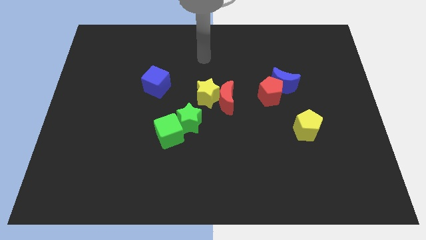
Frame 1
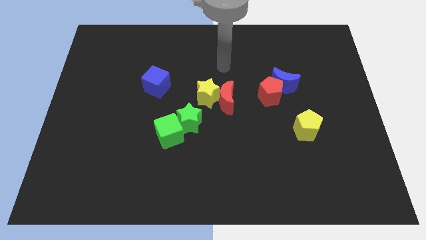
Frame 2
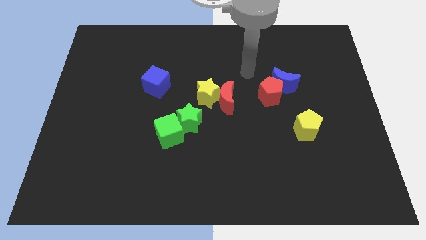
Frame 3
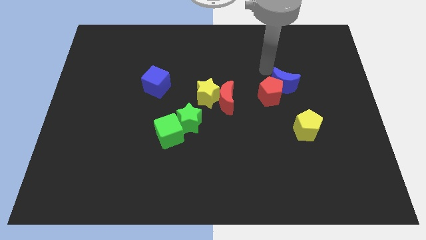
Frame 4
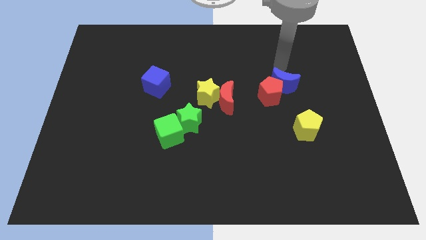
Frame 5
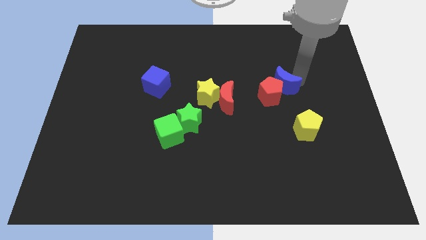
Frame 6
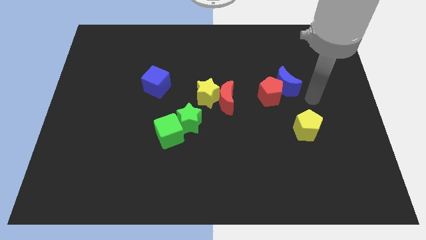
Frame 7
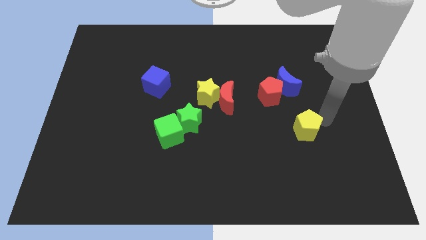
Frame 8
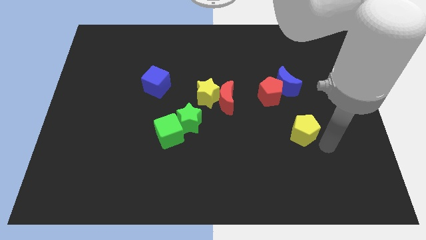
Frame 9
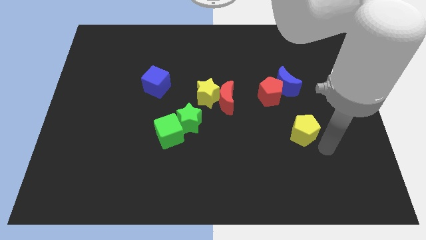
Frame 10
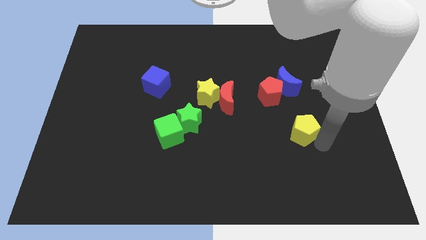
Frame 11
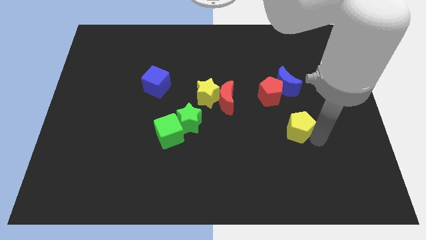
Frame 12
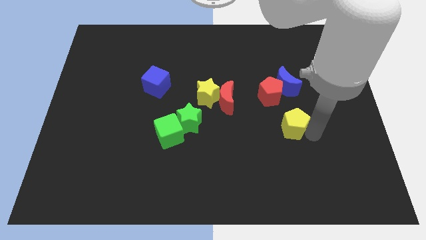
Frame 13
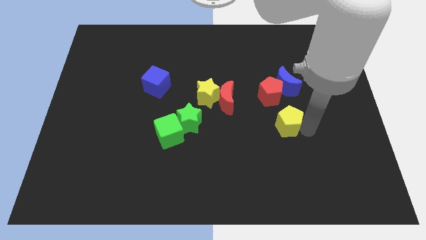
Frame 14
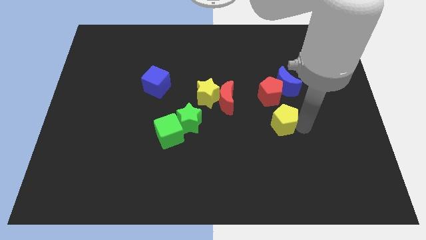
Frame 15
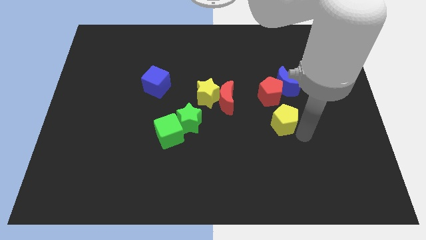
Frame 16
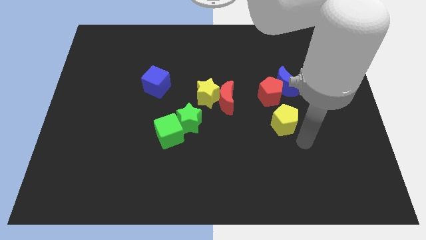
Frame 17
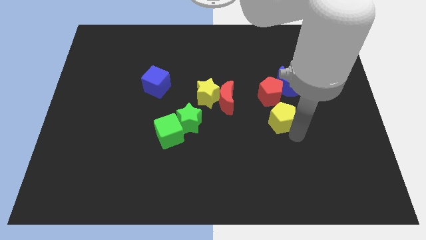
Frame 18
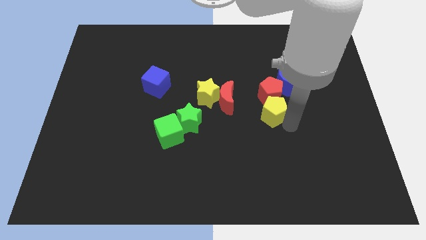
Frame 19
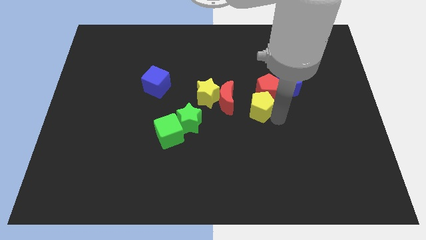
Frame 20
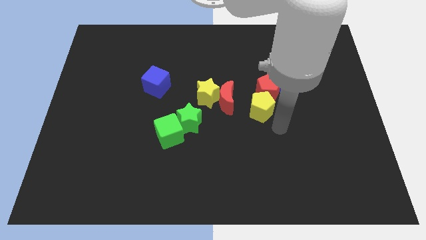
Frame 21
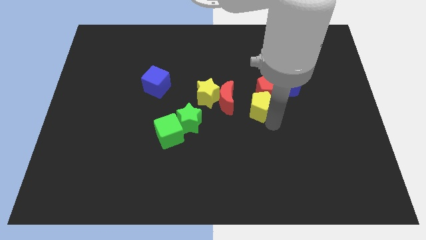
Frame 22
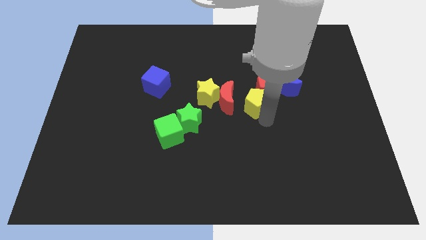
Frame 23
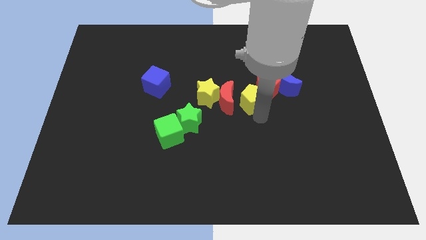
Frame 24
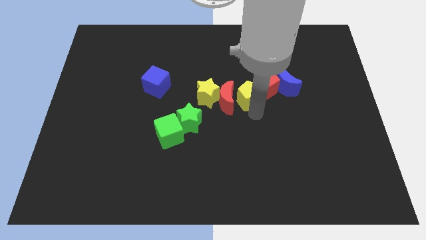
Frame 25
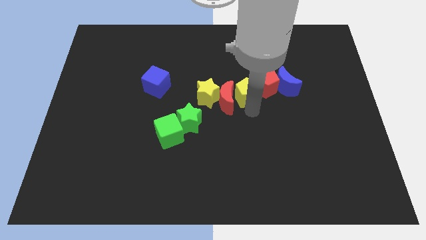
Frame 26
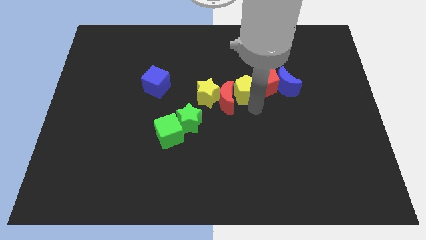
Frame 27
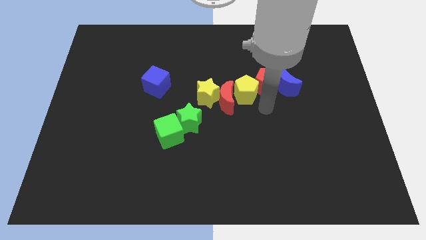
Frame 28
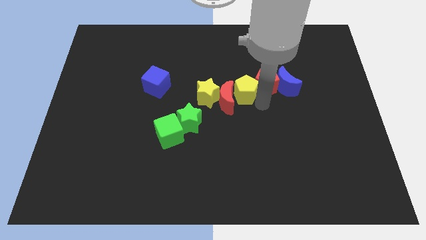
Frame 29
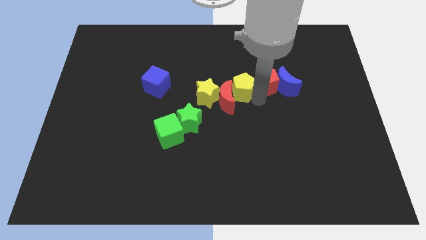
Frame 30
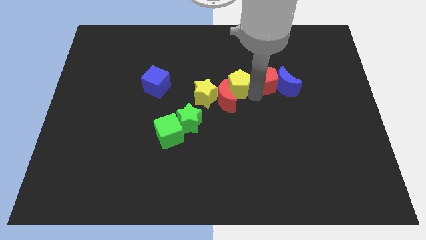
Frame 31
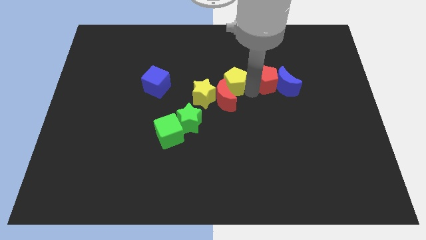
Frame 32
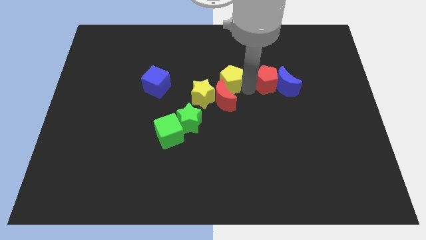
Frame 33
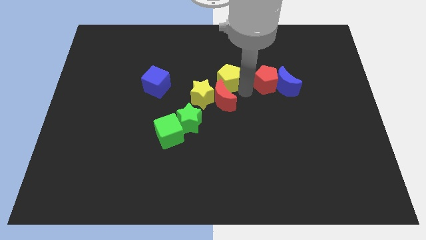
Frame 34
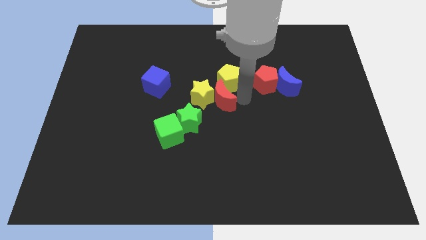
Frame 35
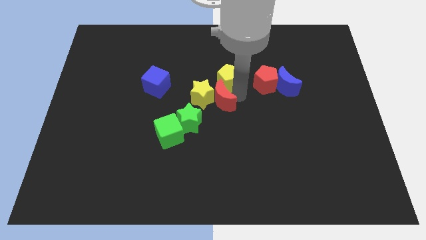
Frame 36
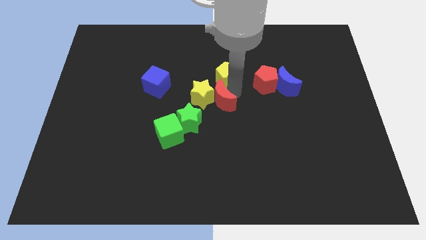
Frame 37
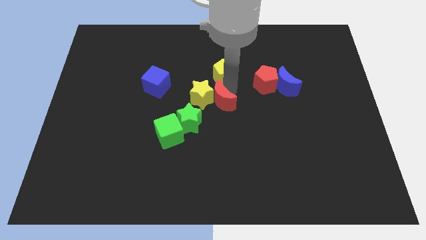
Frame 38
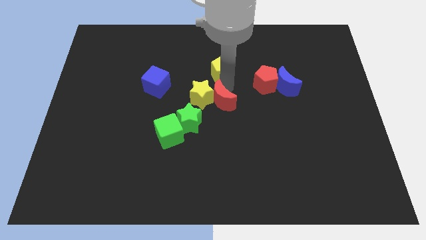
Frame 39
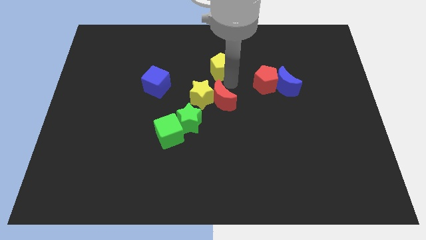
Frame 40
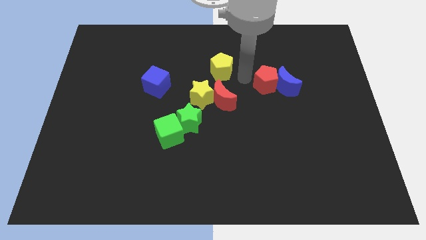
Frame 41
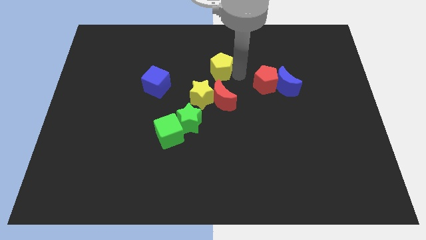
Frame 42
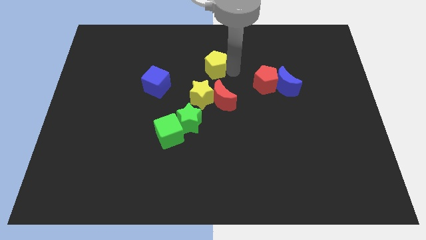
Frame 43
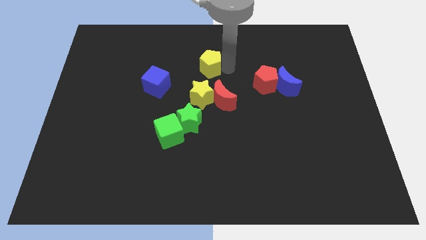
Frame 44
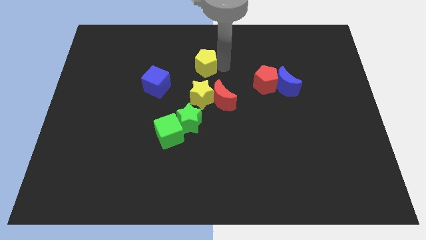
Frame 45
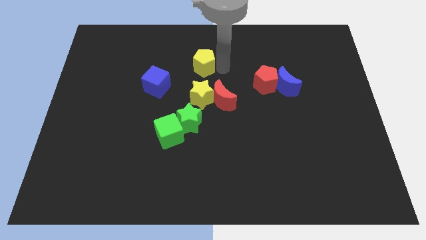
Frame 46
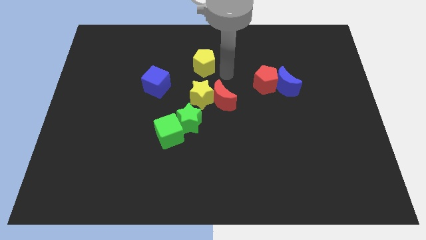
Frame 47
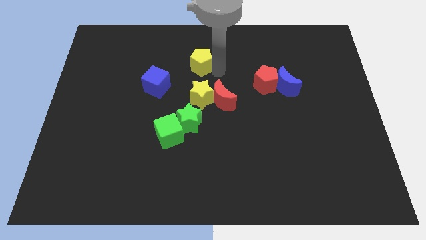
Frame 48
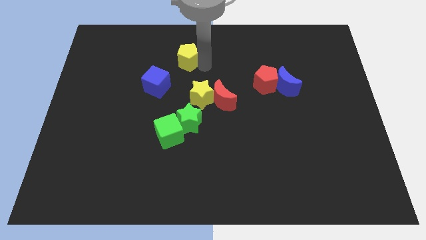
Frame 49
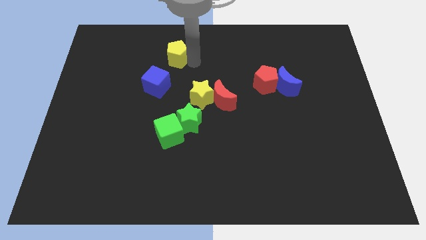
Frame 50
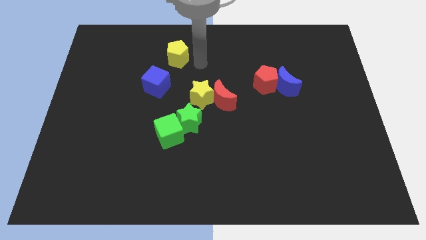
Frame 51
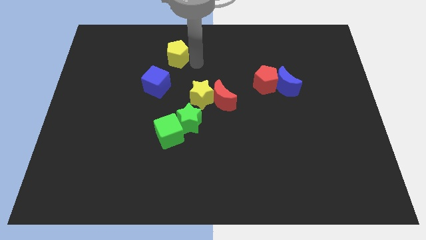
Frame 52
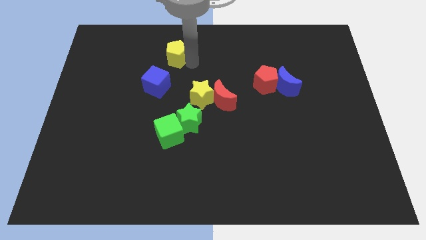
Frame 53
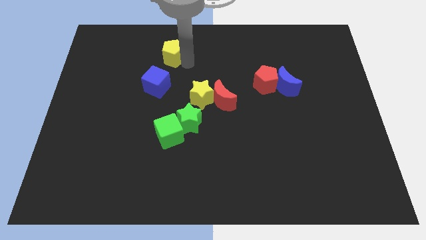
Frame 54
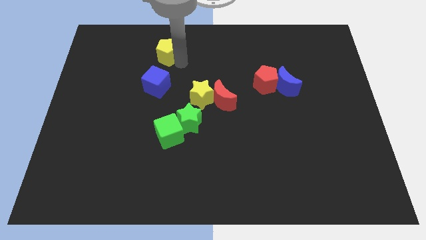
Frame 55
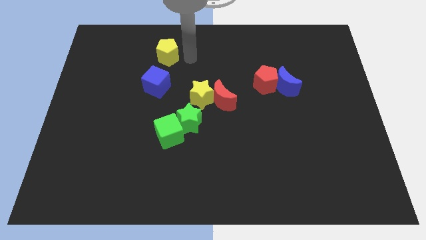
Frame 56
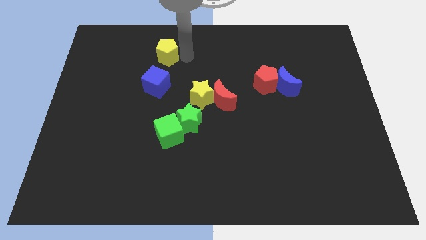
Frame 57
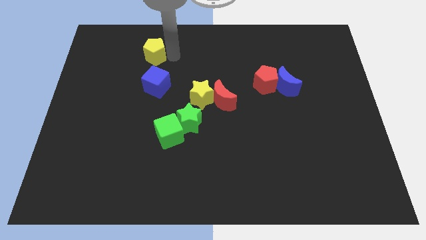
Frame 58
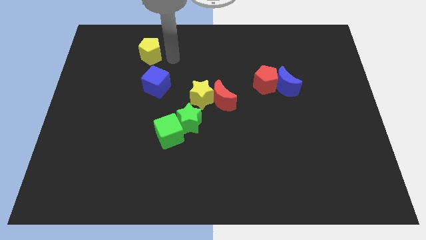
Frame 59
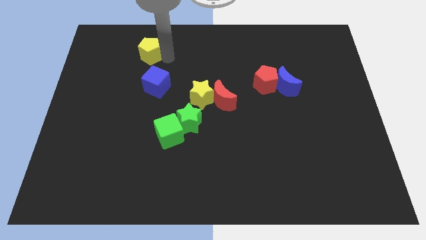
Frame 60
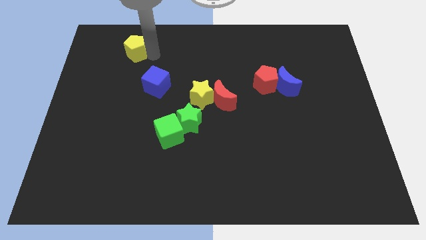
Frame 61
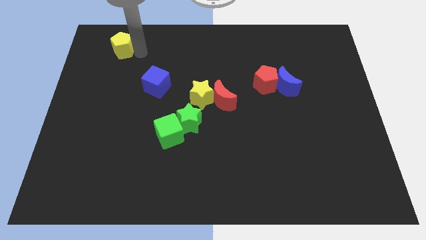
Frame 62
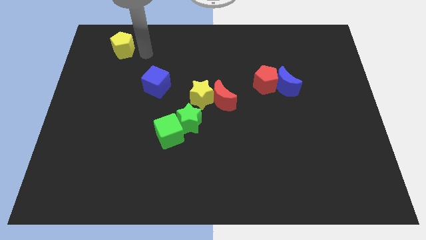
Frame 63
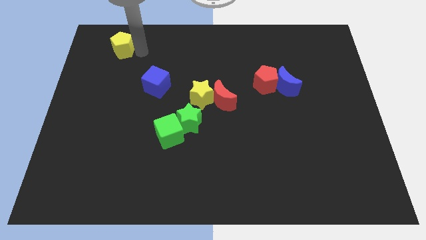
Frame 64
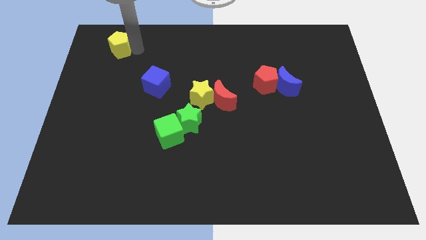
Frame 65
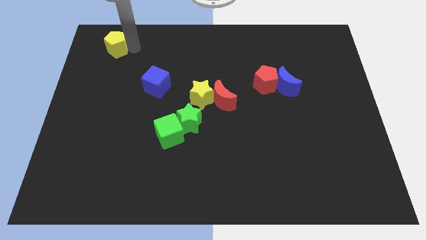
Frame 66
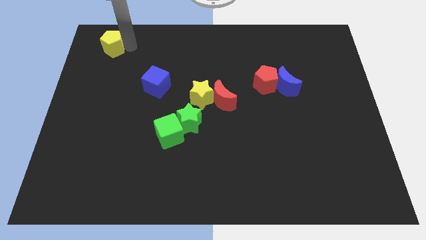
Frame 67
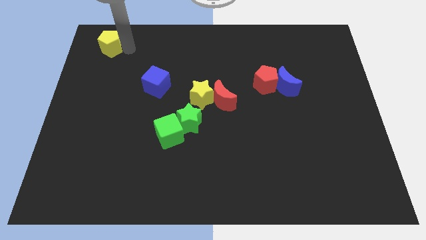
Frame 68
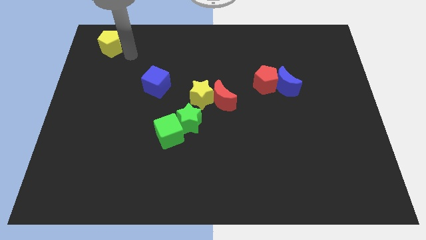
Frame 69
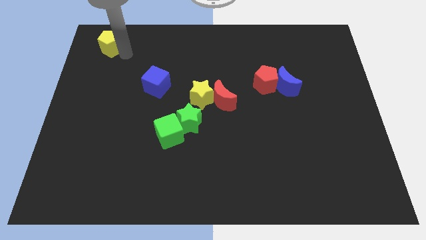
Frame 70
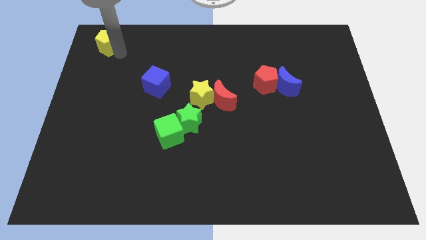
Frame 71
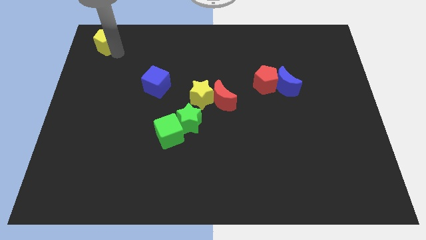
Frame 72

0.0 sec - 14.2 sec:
slide the yellow pentagon to the top left corner

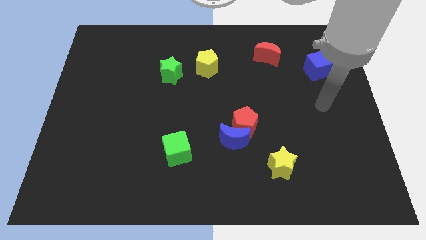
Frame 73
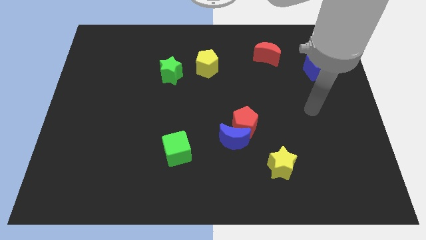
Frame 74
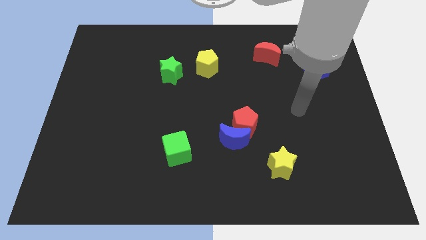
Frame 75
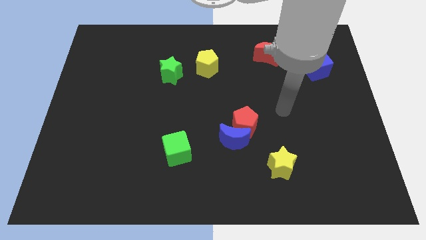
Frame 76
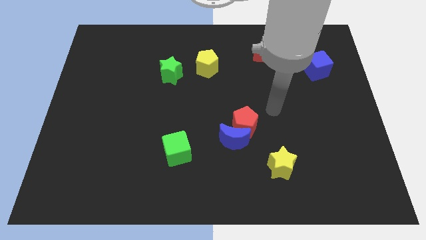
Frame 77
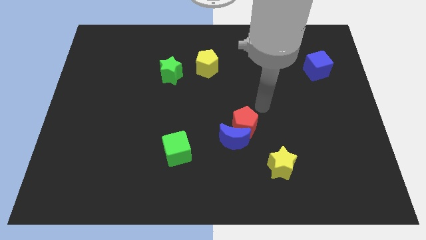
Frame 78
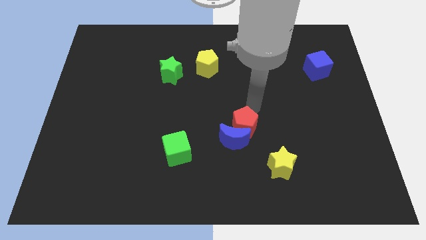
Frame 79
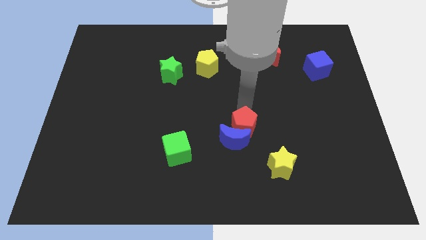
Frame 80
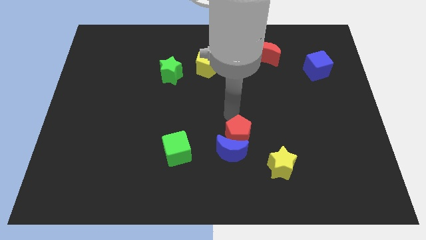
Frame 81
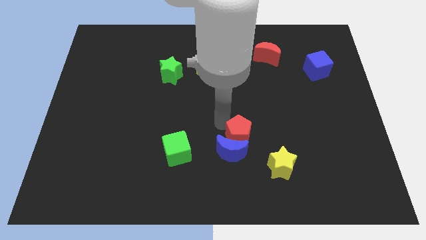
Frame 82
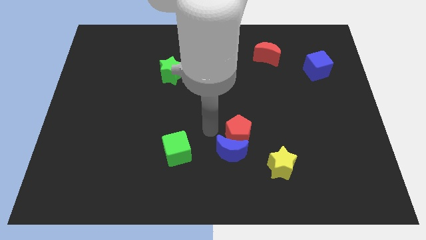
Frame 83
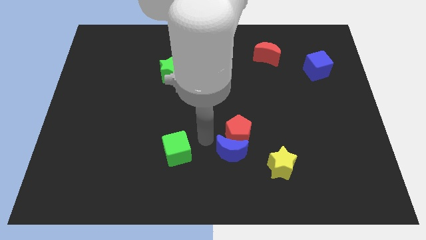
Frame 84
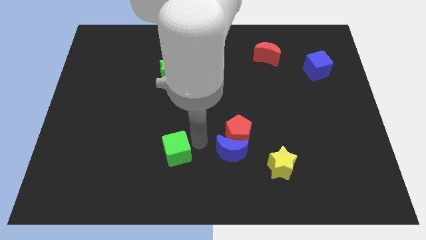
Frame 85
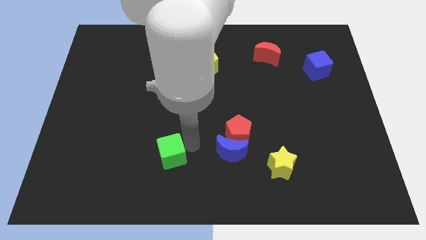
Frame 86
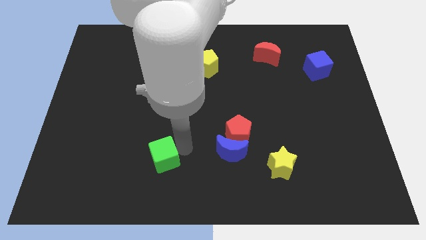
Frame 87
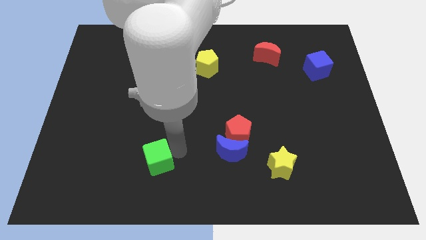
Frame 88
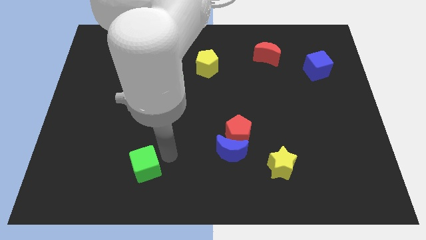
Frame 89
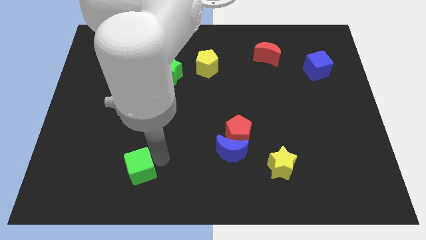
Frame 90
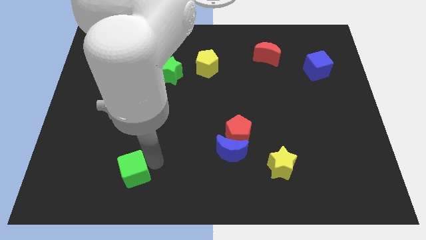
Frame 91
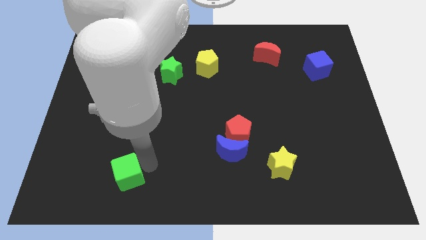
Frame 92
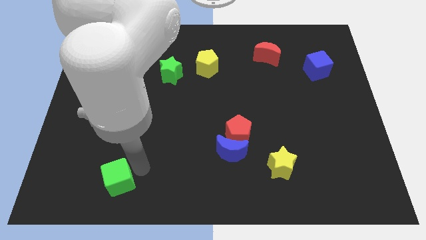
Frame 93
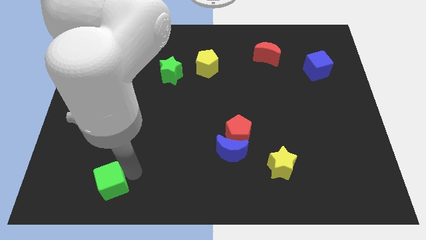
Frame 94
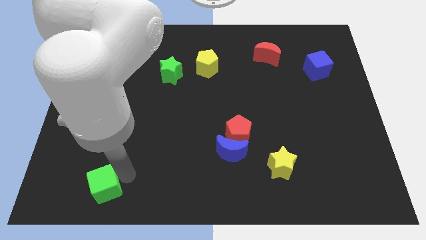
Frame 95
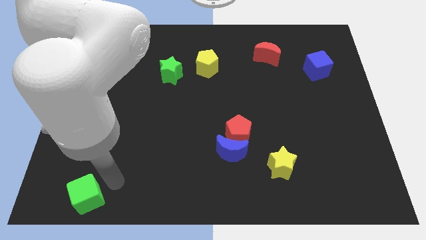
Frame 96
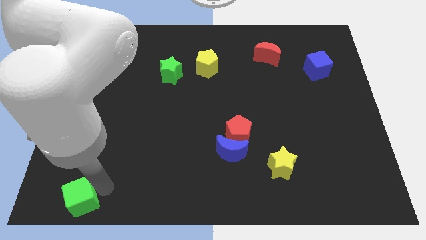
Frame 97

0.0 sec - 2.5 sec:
slide the green cube to the lower left corner
